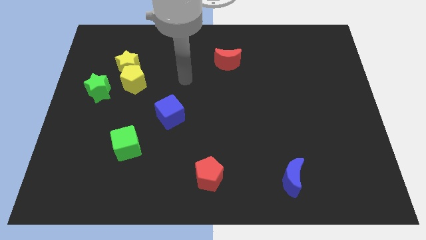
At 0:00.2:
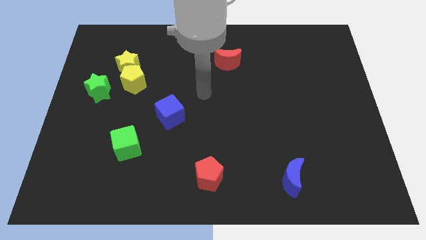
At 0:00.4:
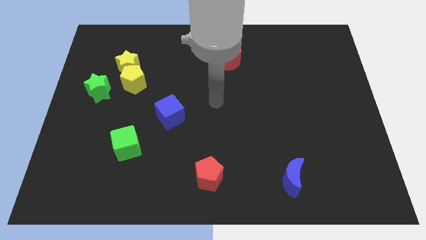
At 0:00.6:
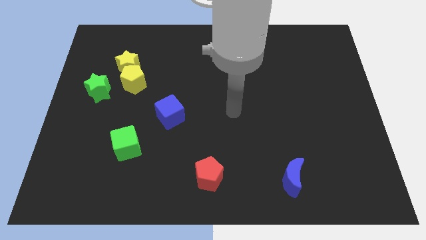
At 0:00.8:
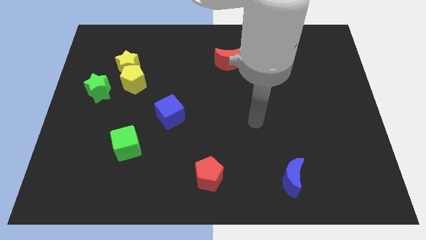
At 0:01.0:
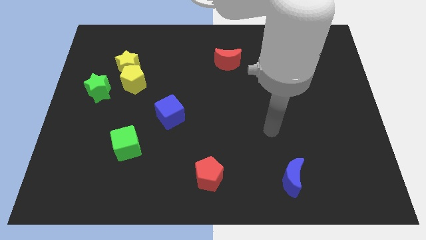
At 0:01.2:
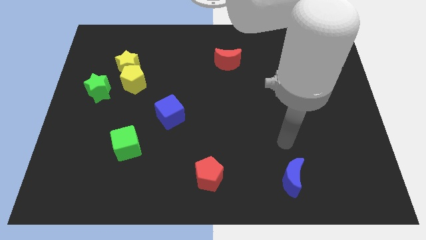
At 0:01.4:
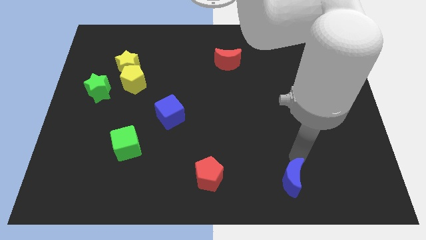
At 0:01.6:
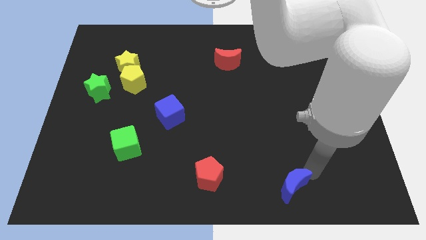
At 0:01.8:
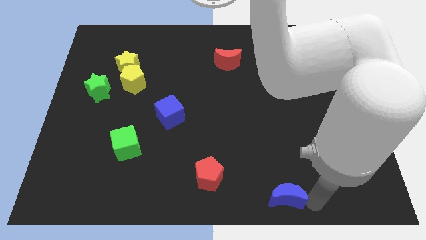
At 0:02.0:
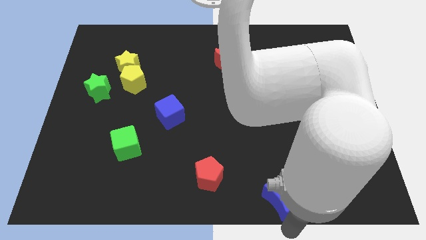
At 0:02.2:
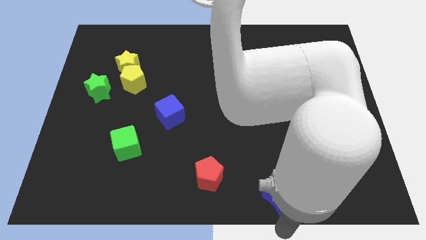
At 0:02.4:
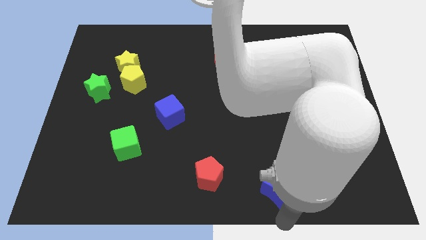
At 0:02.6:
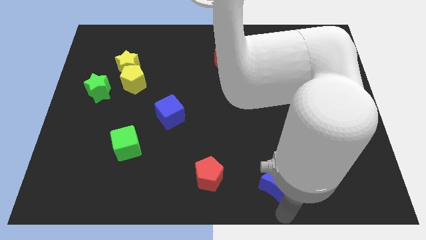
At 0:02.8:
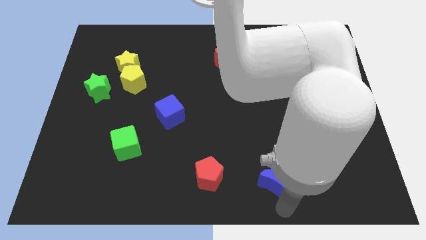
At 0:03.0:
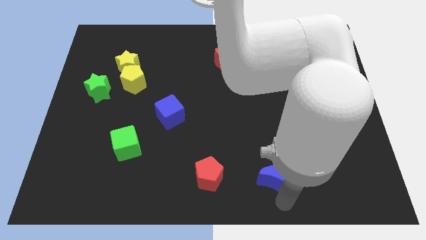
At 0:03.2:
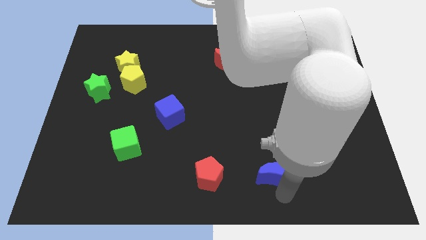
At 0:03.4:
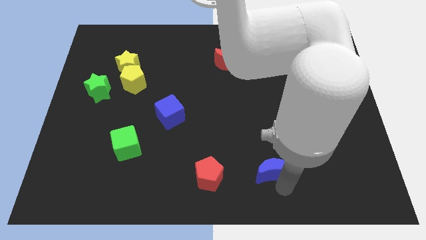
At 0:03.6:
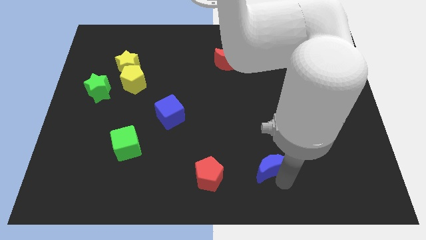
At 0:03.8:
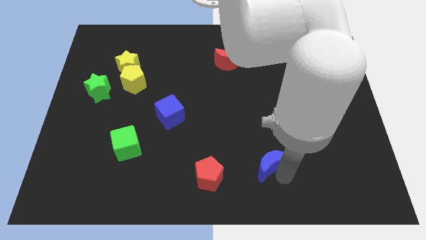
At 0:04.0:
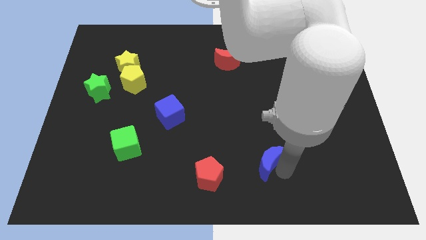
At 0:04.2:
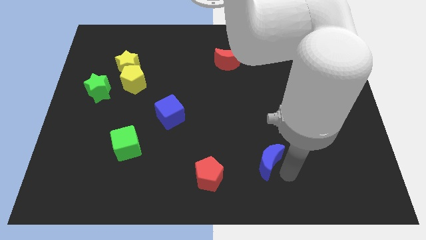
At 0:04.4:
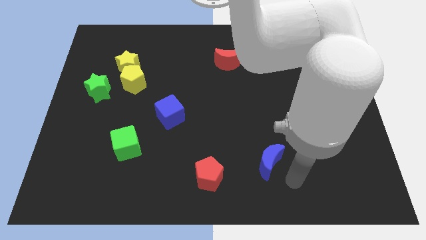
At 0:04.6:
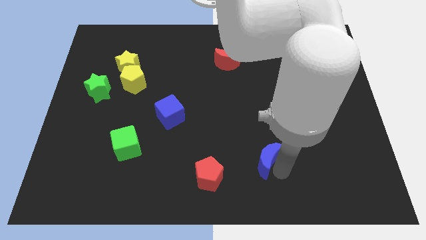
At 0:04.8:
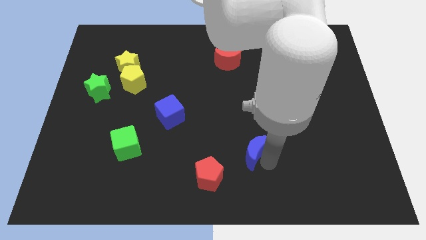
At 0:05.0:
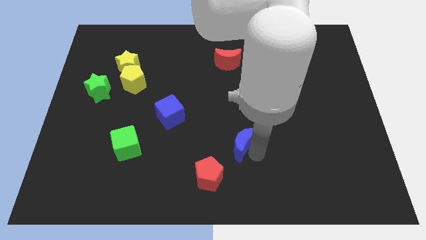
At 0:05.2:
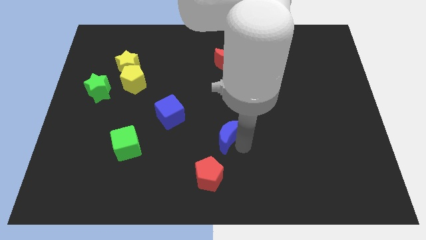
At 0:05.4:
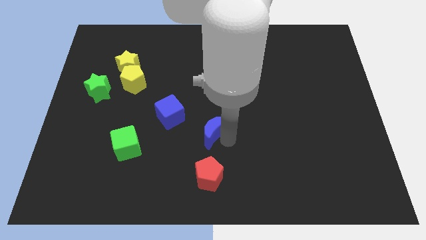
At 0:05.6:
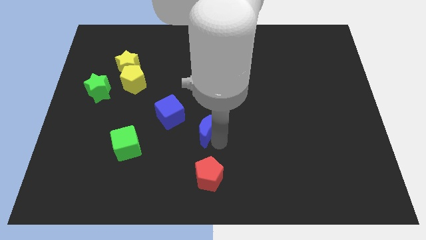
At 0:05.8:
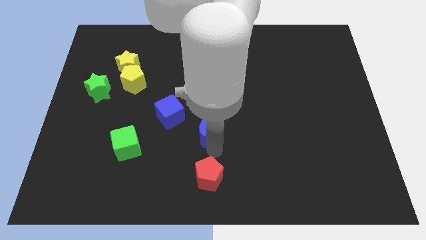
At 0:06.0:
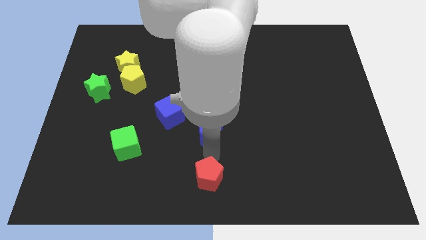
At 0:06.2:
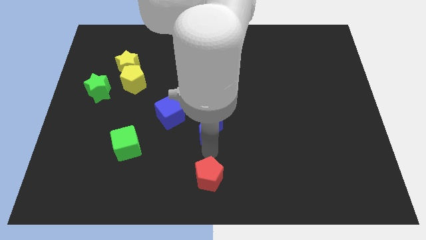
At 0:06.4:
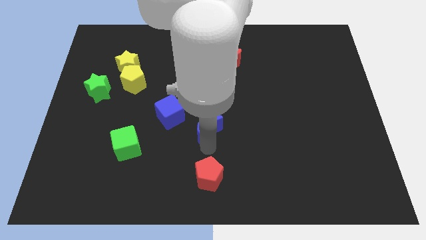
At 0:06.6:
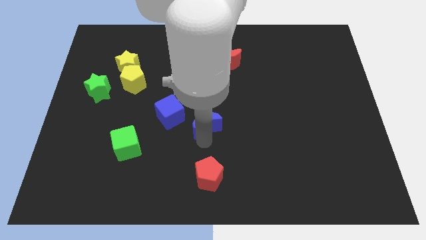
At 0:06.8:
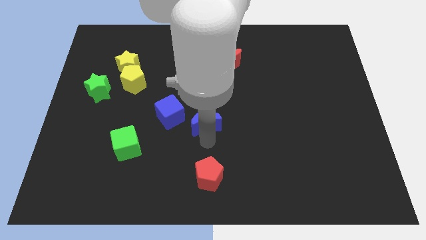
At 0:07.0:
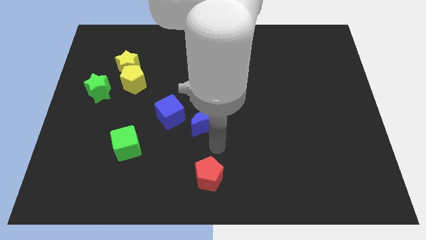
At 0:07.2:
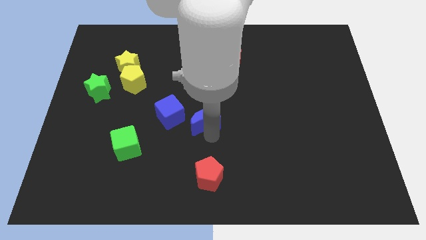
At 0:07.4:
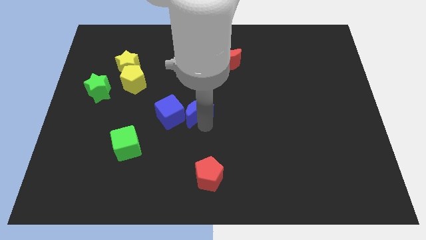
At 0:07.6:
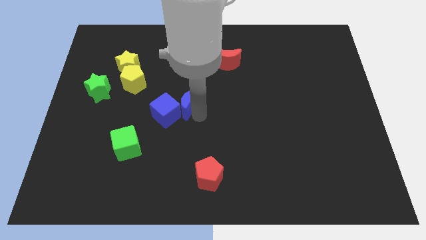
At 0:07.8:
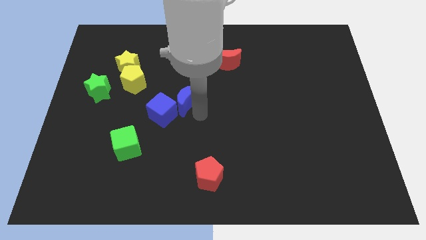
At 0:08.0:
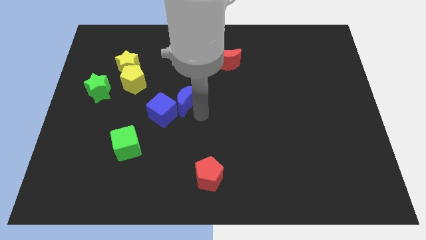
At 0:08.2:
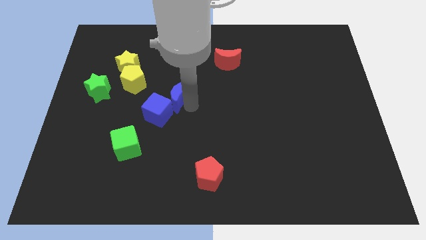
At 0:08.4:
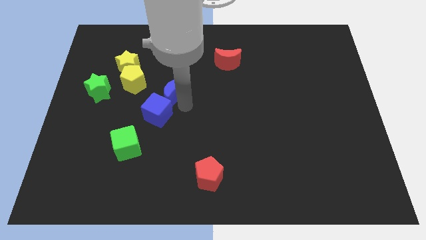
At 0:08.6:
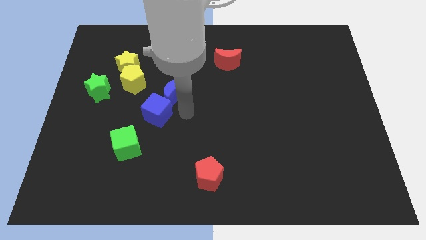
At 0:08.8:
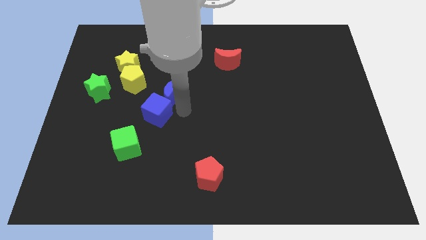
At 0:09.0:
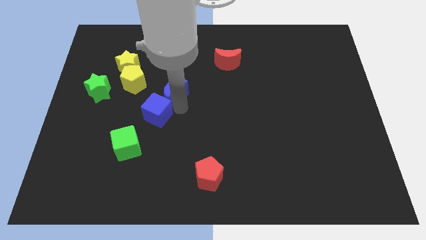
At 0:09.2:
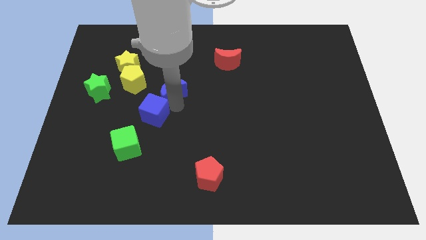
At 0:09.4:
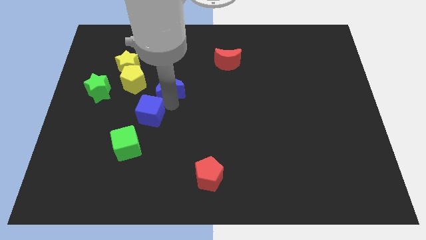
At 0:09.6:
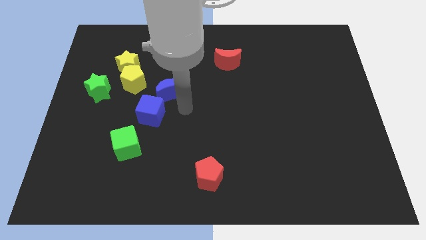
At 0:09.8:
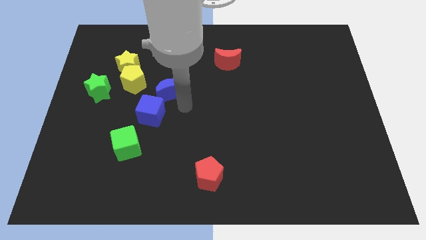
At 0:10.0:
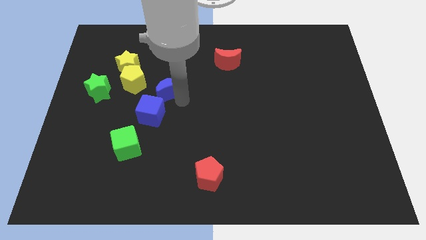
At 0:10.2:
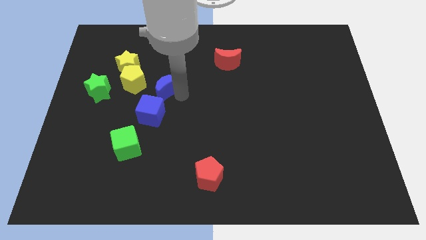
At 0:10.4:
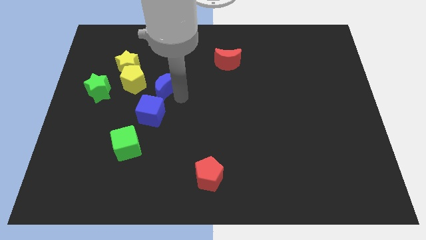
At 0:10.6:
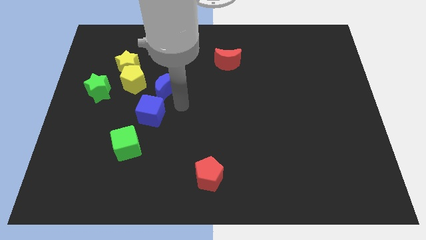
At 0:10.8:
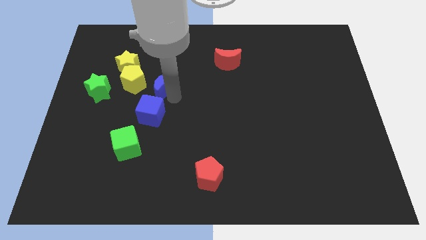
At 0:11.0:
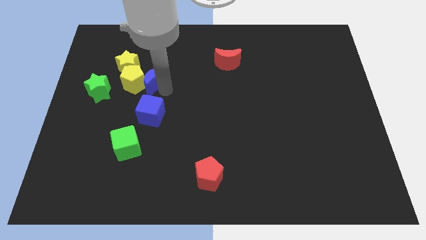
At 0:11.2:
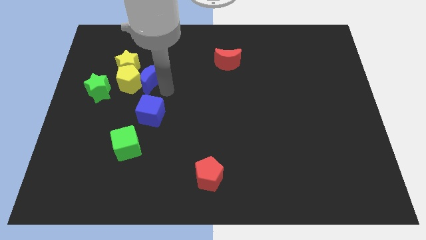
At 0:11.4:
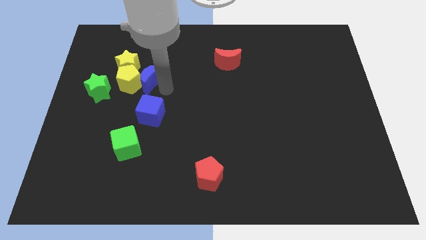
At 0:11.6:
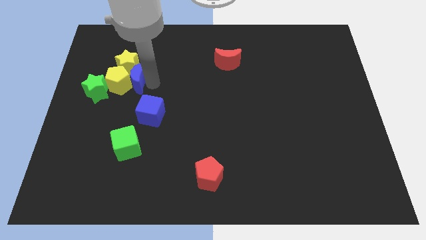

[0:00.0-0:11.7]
put the blue moon close to the yellow star

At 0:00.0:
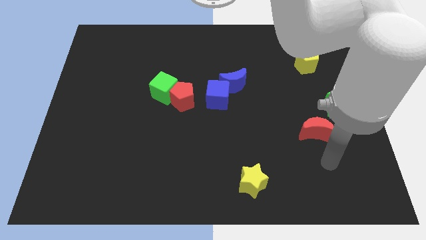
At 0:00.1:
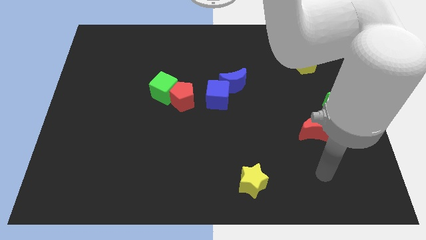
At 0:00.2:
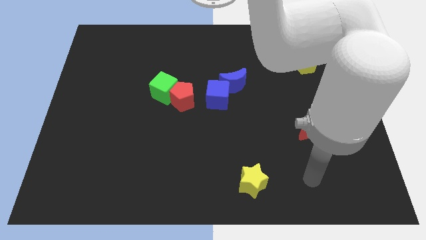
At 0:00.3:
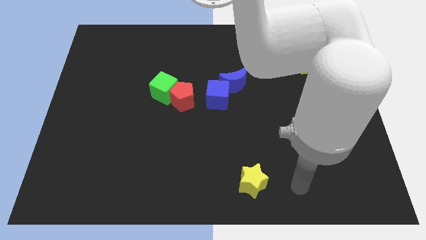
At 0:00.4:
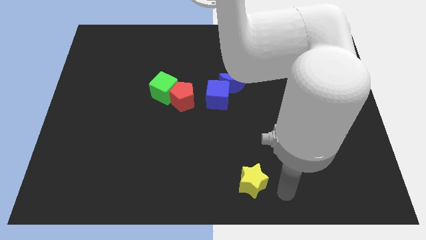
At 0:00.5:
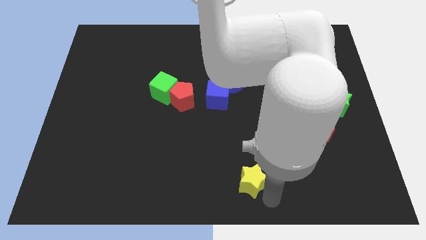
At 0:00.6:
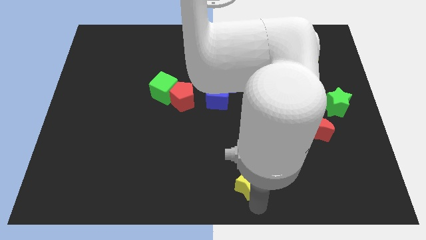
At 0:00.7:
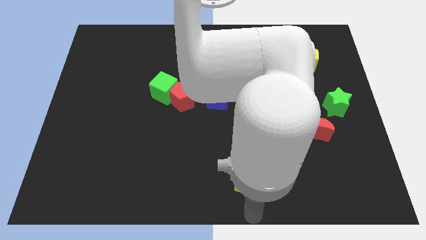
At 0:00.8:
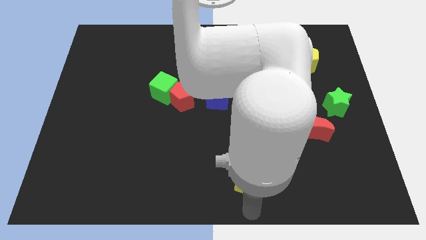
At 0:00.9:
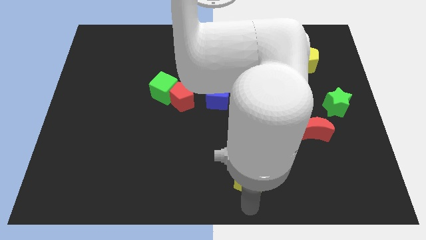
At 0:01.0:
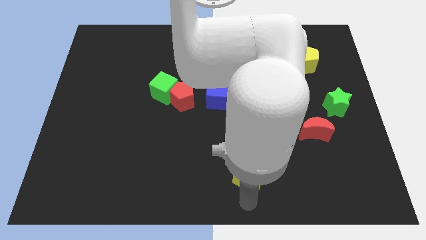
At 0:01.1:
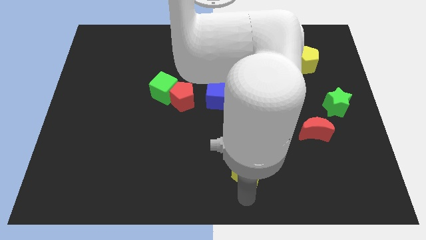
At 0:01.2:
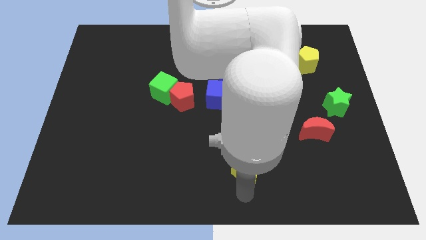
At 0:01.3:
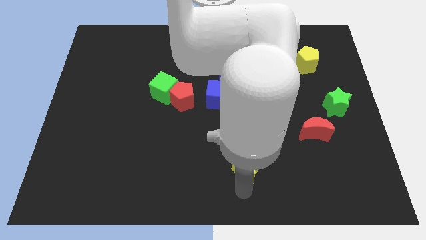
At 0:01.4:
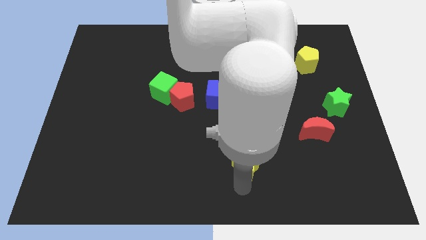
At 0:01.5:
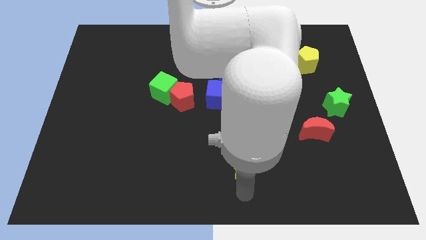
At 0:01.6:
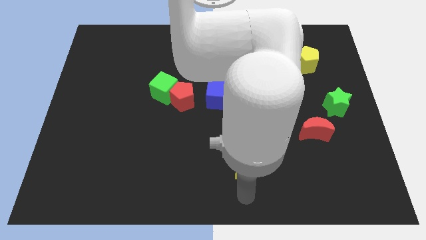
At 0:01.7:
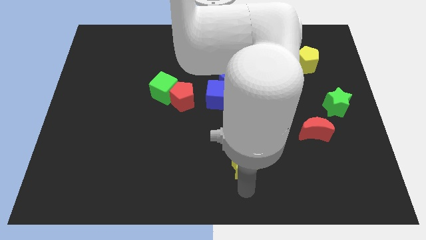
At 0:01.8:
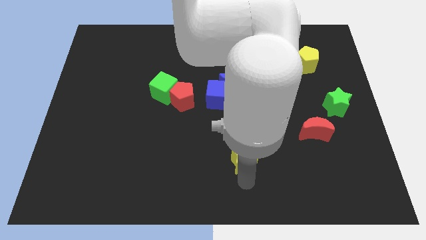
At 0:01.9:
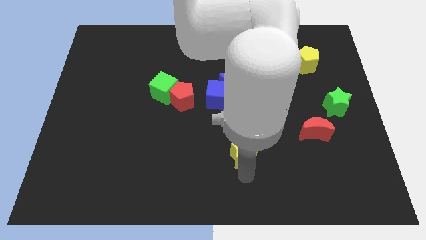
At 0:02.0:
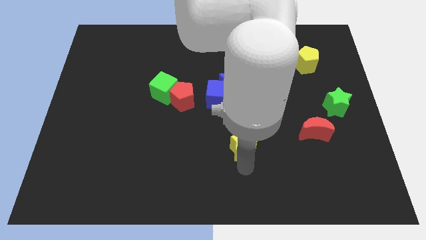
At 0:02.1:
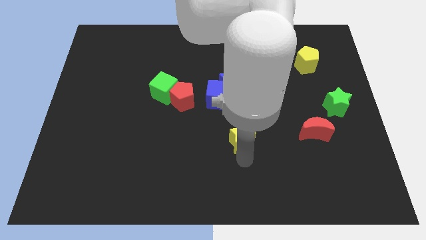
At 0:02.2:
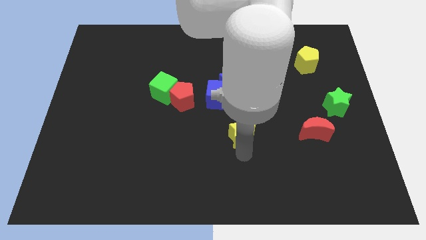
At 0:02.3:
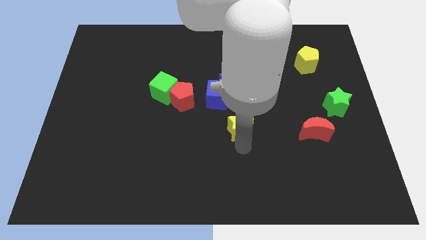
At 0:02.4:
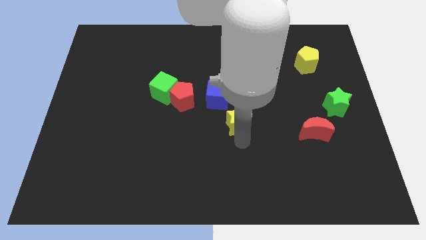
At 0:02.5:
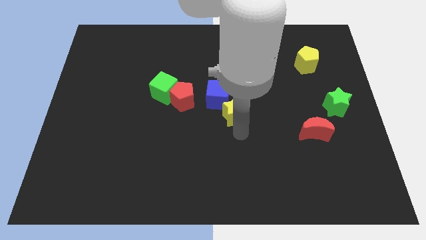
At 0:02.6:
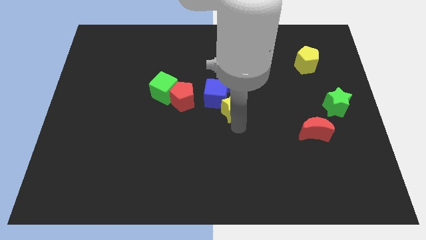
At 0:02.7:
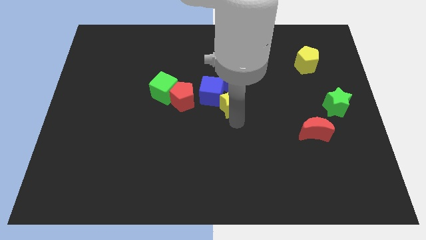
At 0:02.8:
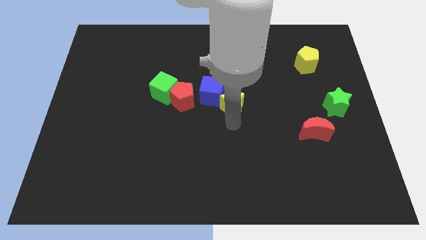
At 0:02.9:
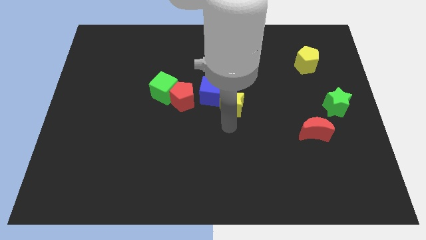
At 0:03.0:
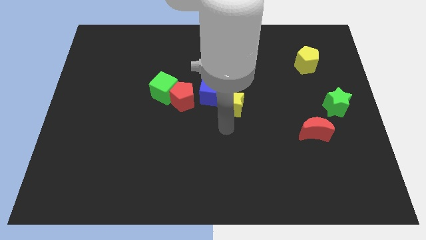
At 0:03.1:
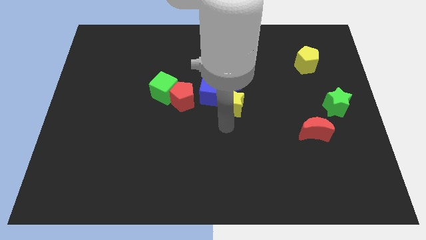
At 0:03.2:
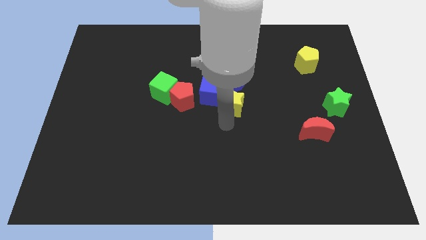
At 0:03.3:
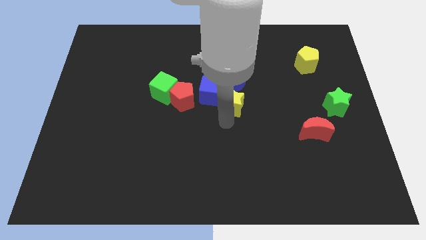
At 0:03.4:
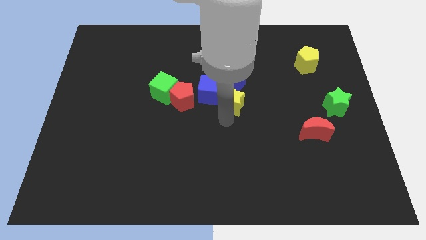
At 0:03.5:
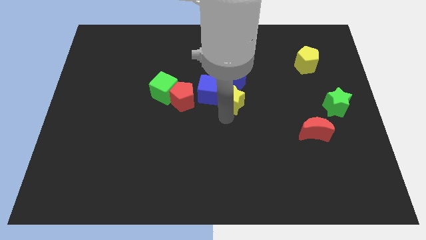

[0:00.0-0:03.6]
move the yellow star next to the blue moon
